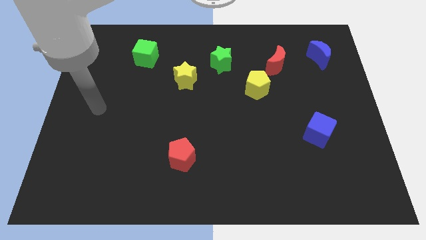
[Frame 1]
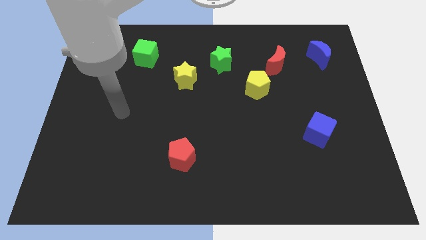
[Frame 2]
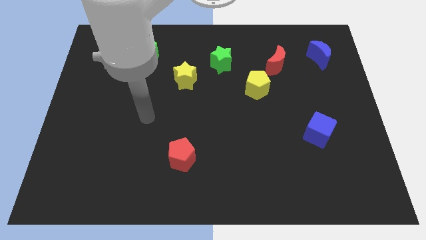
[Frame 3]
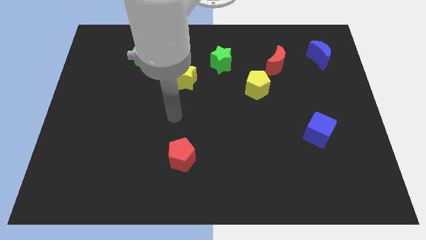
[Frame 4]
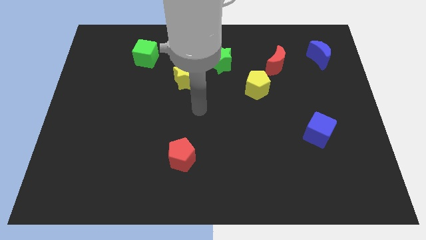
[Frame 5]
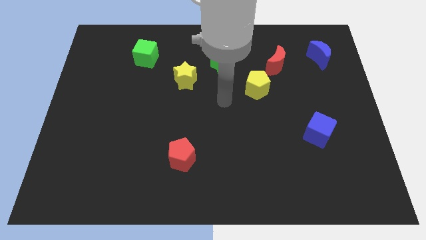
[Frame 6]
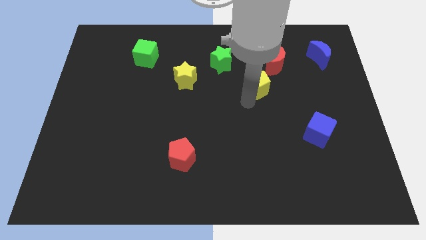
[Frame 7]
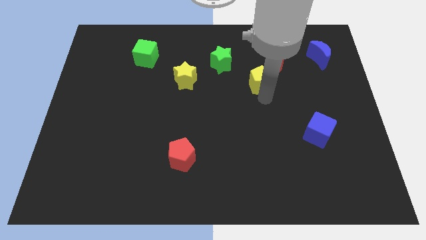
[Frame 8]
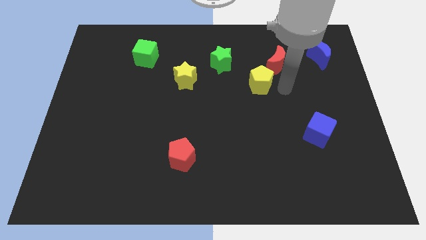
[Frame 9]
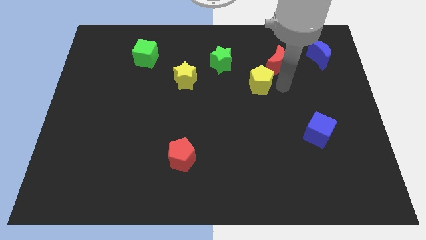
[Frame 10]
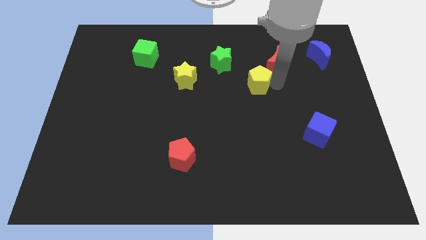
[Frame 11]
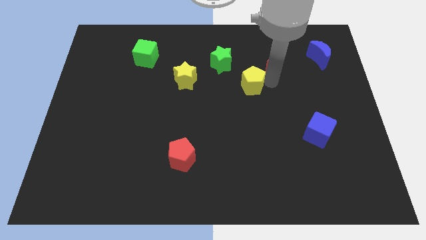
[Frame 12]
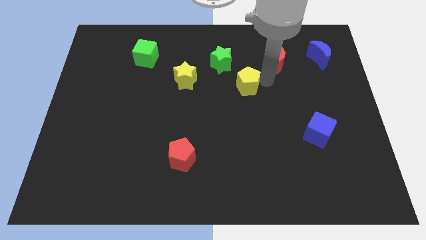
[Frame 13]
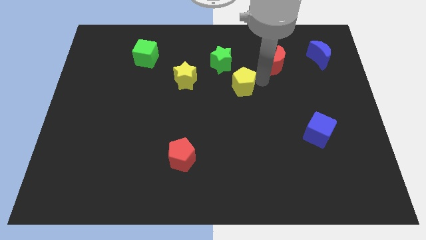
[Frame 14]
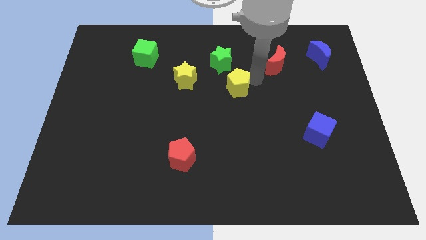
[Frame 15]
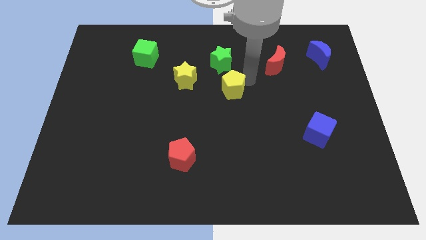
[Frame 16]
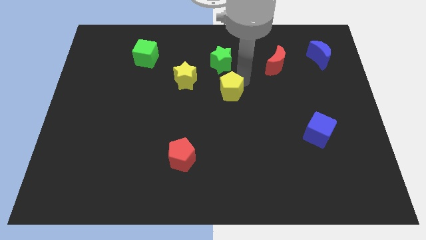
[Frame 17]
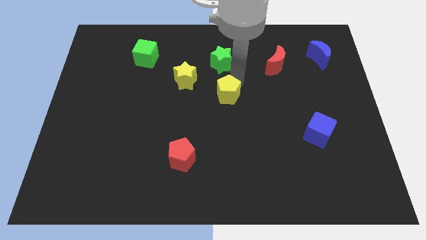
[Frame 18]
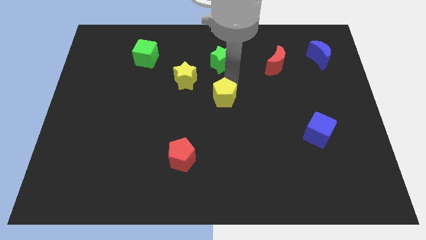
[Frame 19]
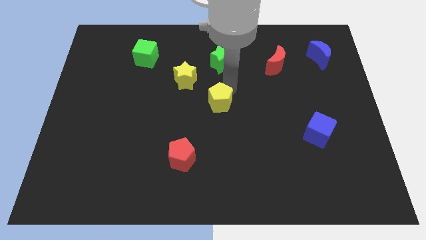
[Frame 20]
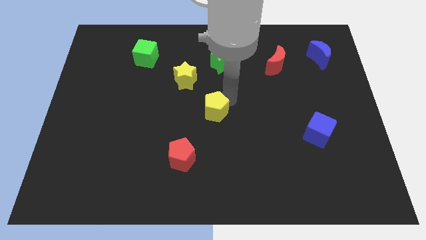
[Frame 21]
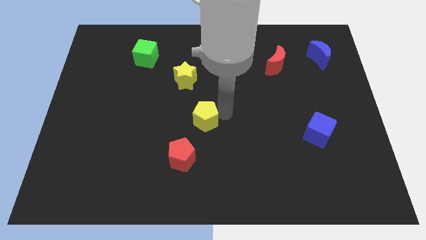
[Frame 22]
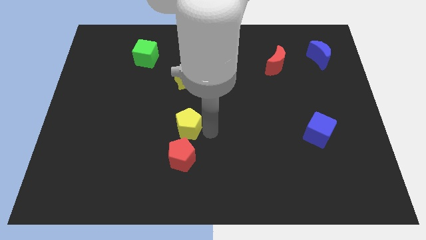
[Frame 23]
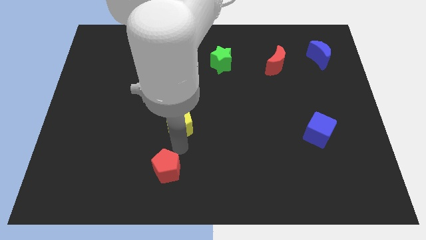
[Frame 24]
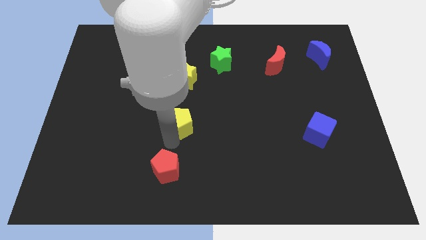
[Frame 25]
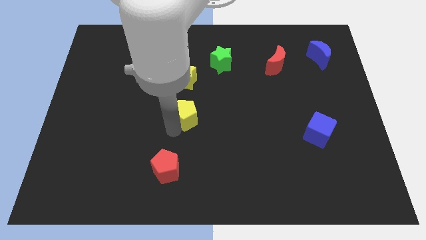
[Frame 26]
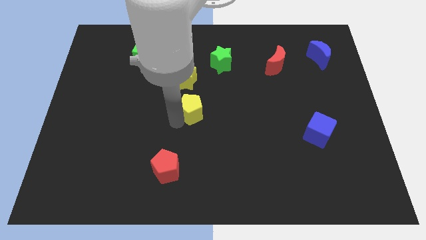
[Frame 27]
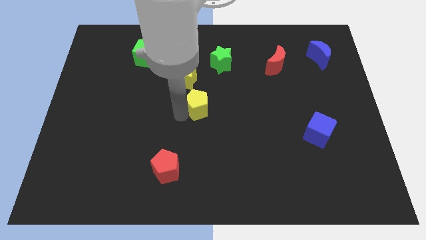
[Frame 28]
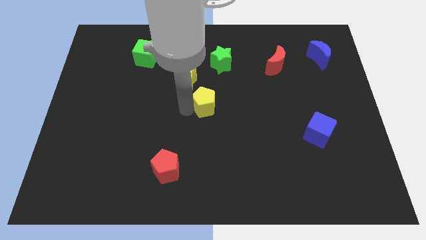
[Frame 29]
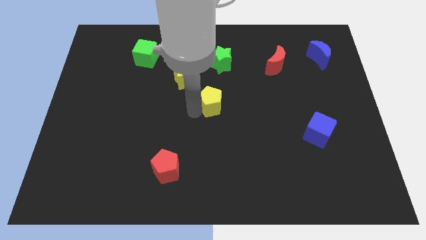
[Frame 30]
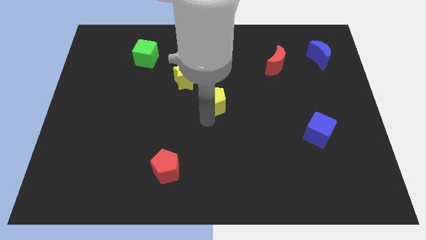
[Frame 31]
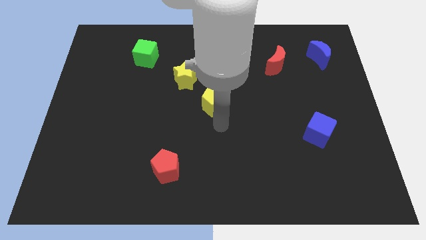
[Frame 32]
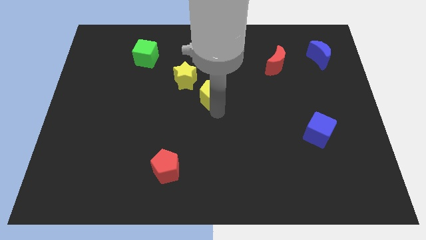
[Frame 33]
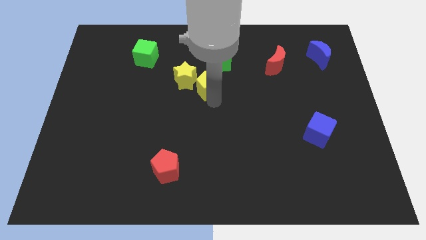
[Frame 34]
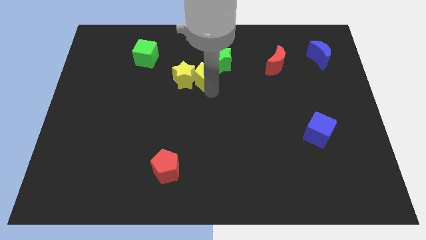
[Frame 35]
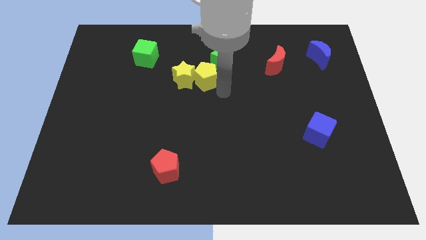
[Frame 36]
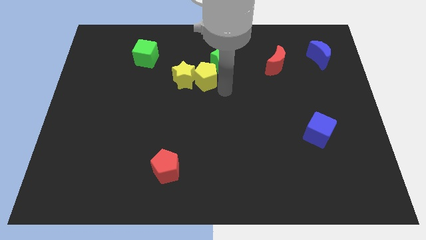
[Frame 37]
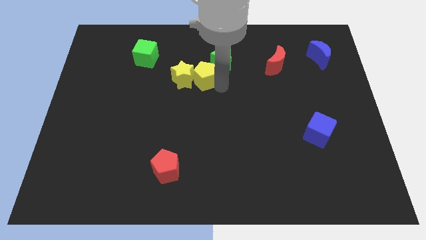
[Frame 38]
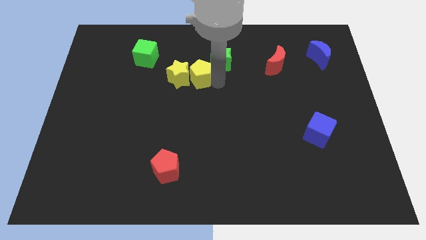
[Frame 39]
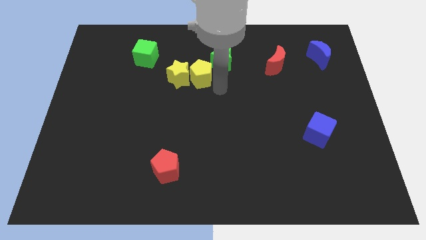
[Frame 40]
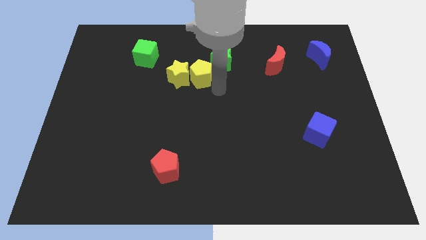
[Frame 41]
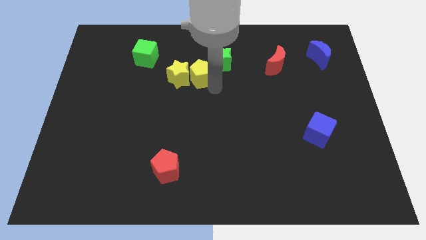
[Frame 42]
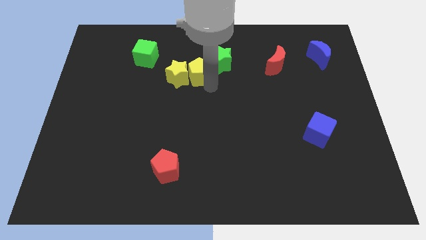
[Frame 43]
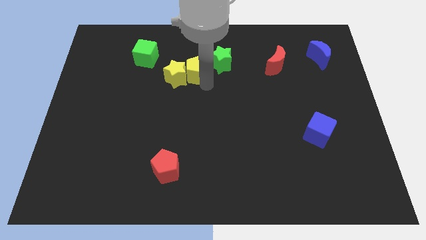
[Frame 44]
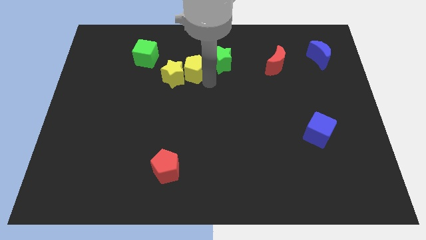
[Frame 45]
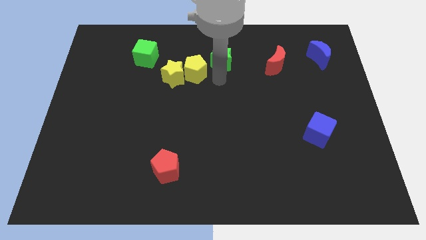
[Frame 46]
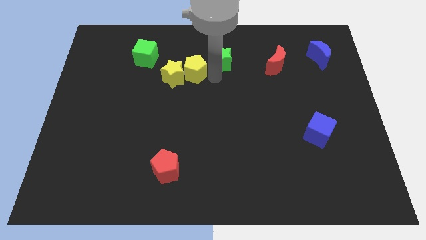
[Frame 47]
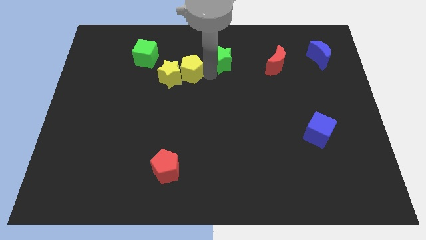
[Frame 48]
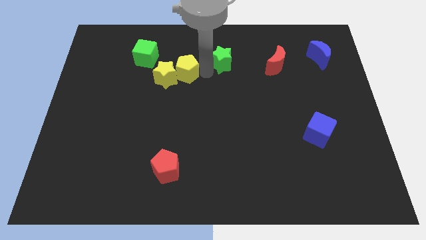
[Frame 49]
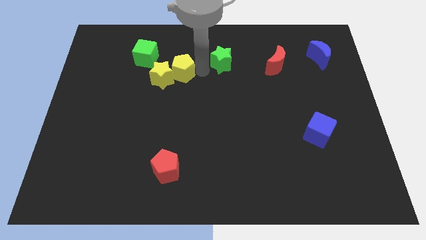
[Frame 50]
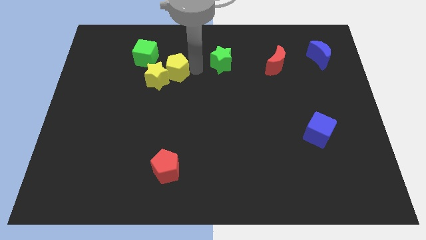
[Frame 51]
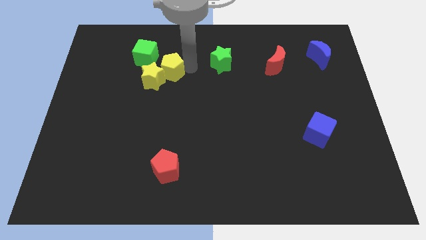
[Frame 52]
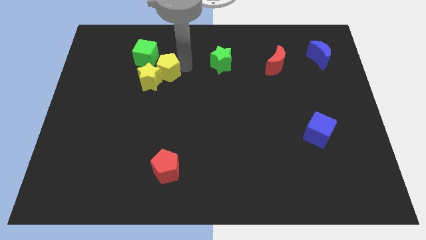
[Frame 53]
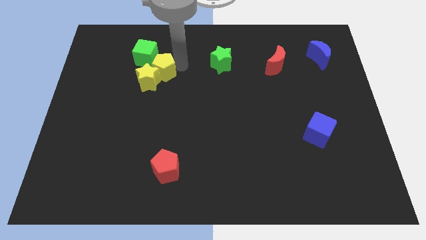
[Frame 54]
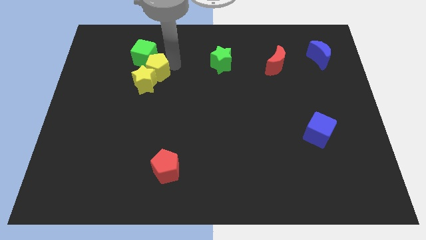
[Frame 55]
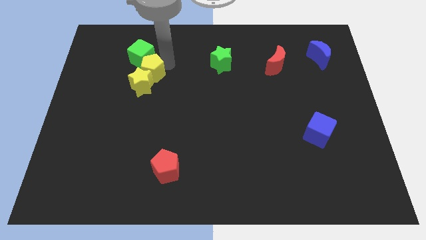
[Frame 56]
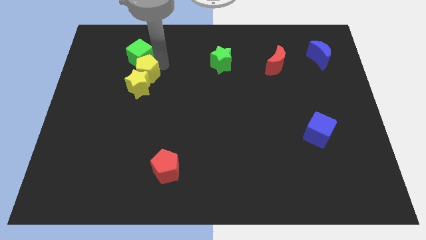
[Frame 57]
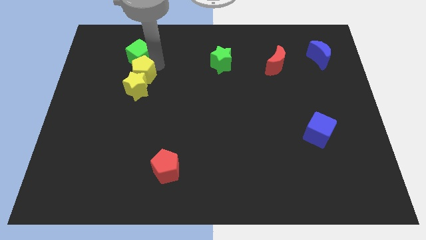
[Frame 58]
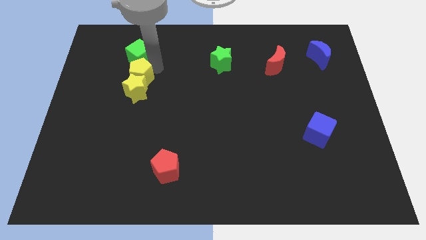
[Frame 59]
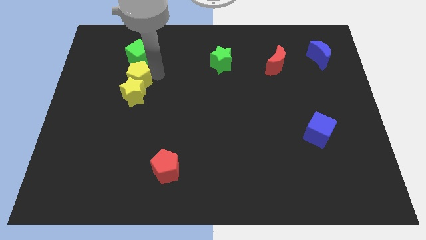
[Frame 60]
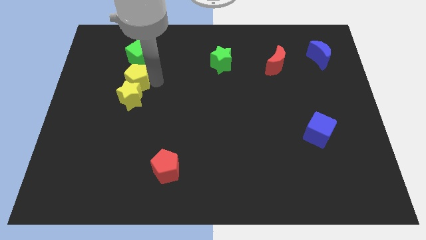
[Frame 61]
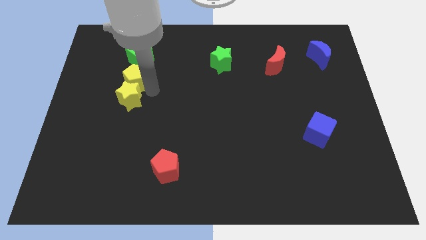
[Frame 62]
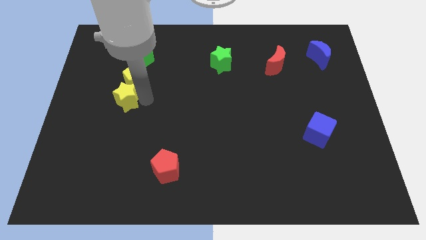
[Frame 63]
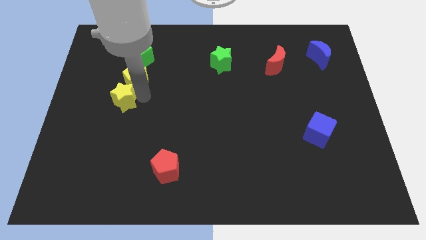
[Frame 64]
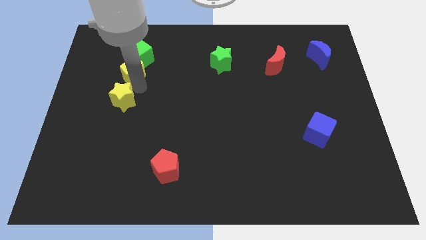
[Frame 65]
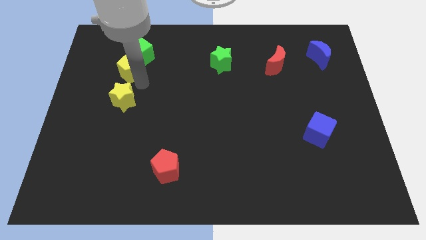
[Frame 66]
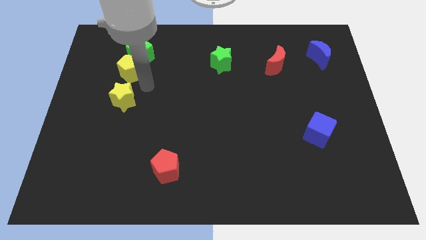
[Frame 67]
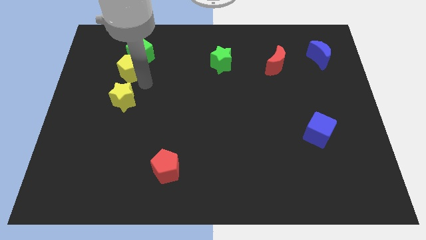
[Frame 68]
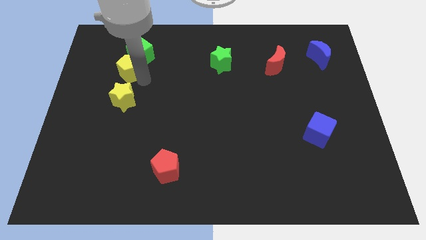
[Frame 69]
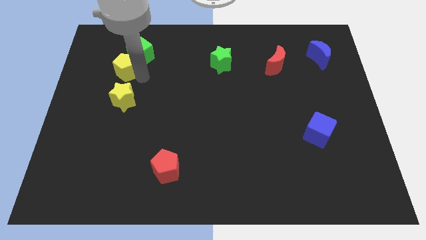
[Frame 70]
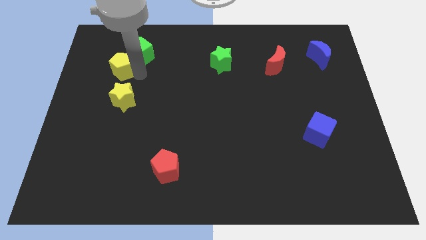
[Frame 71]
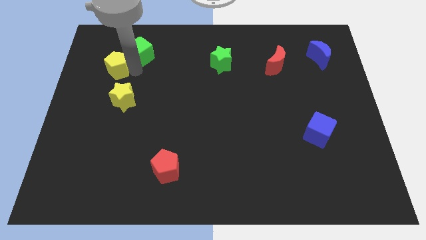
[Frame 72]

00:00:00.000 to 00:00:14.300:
put the yellow pentagon just left of the green cube

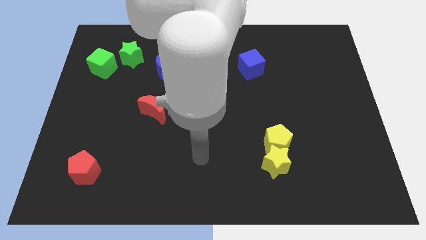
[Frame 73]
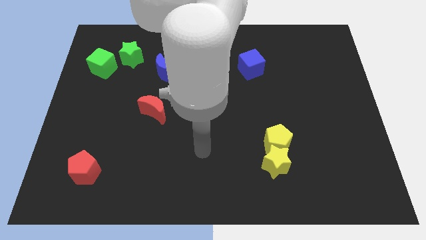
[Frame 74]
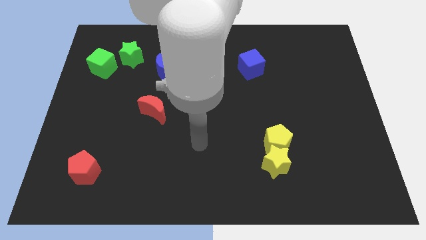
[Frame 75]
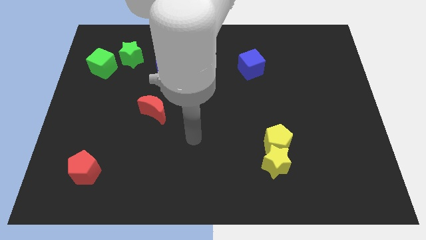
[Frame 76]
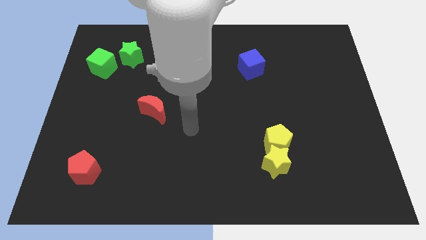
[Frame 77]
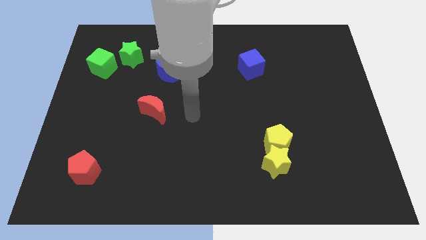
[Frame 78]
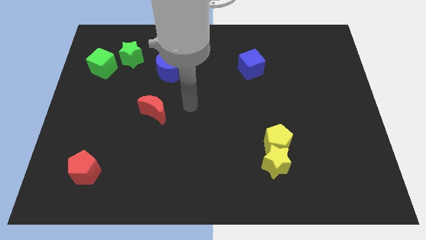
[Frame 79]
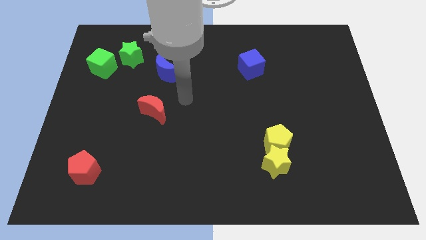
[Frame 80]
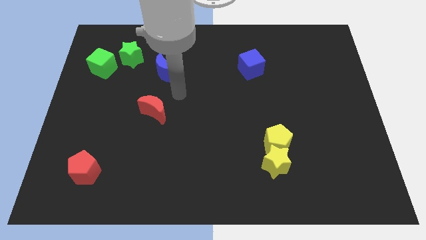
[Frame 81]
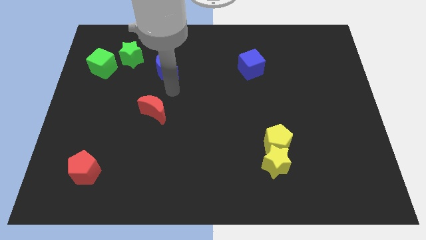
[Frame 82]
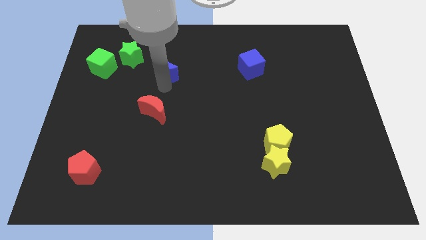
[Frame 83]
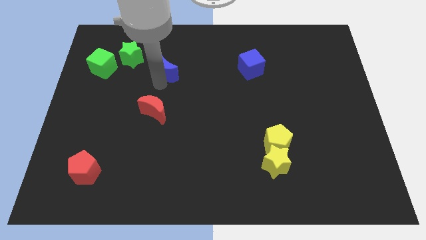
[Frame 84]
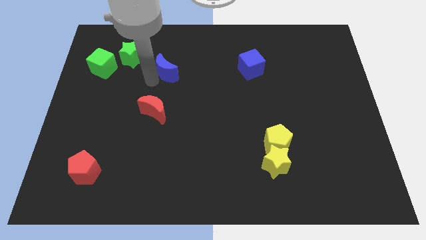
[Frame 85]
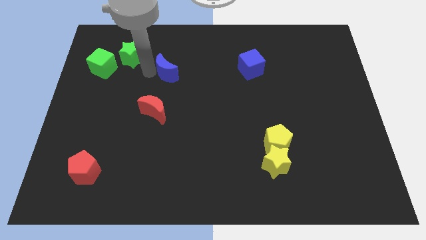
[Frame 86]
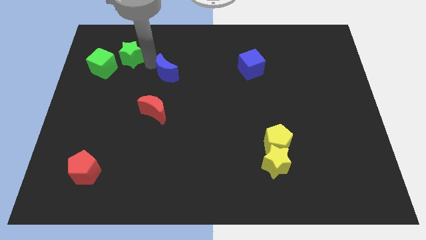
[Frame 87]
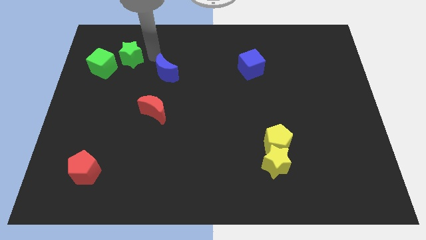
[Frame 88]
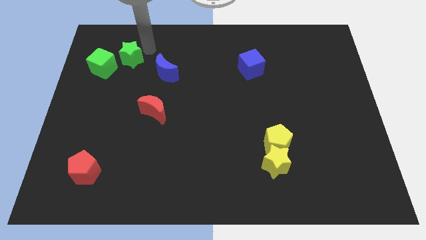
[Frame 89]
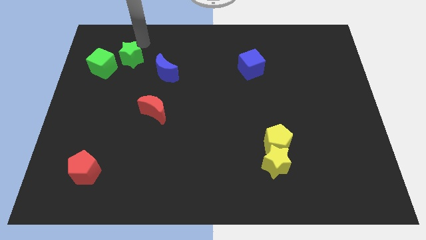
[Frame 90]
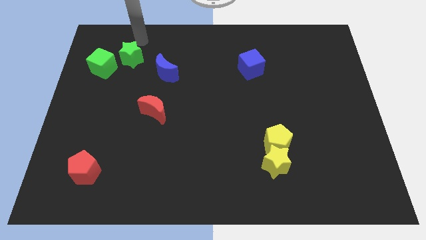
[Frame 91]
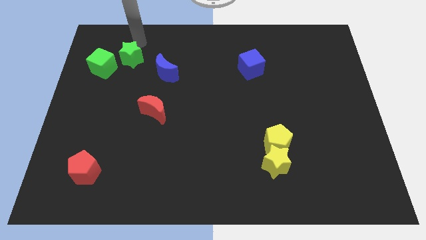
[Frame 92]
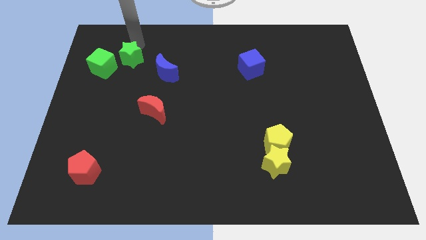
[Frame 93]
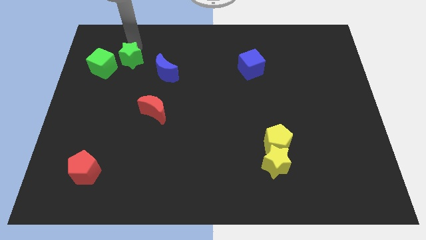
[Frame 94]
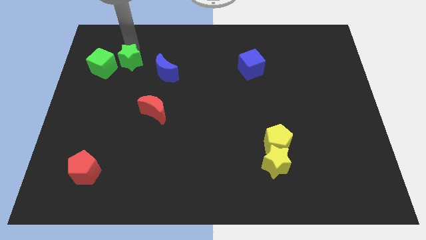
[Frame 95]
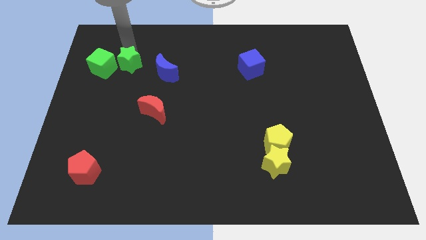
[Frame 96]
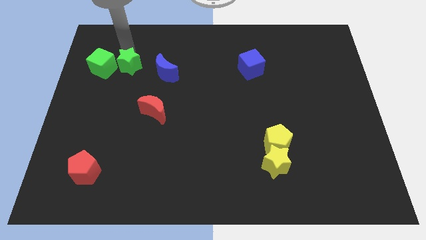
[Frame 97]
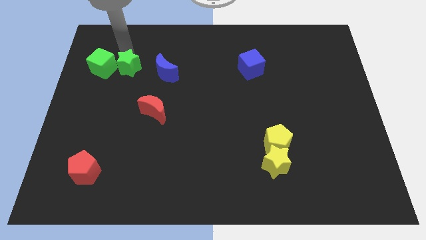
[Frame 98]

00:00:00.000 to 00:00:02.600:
slide the green star to the bottom right of the green cube
